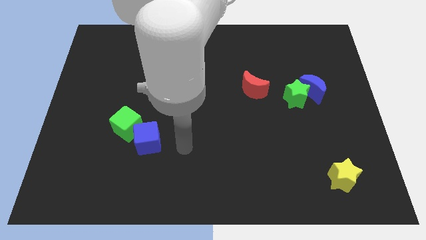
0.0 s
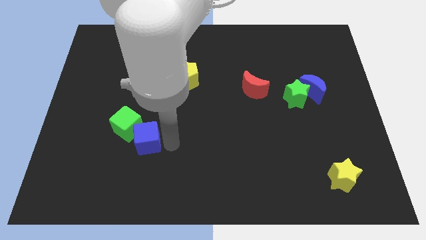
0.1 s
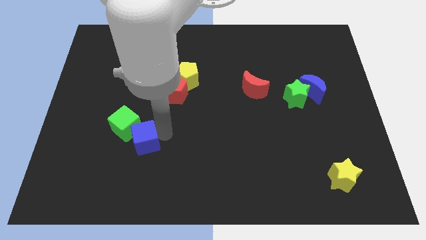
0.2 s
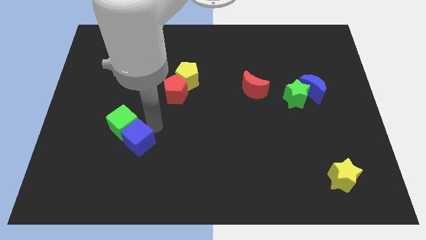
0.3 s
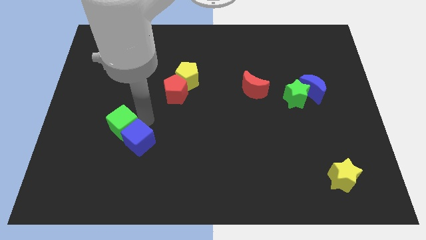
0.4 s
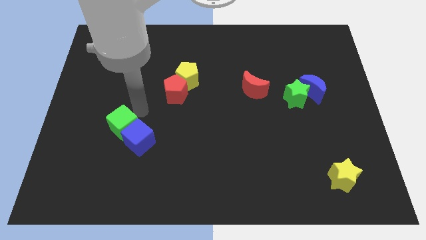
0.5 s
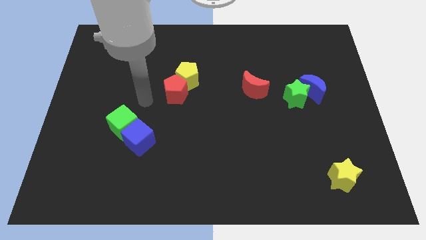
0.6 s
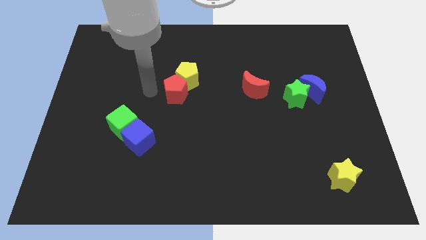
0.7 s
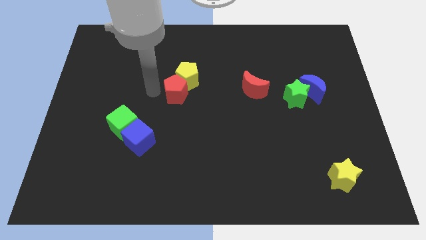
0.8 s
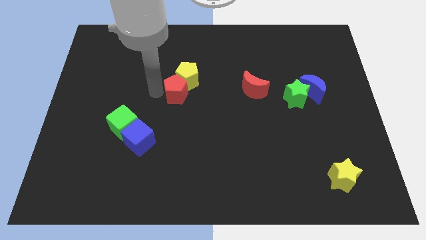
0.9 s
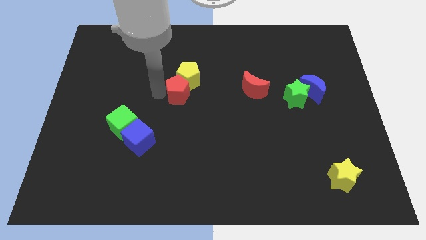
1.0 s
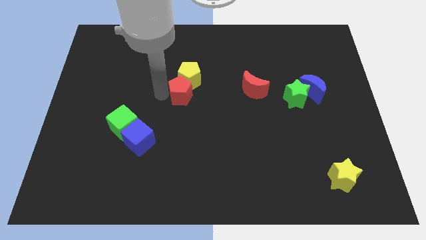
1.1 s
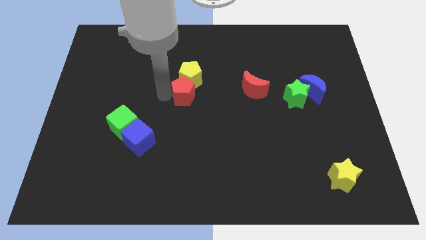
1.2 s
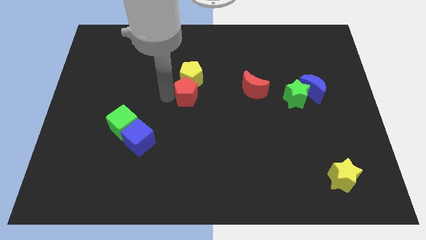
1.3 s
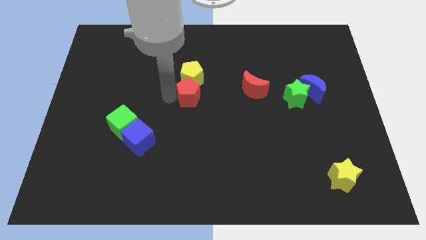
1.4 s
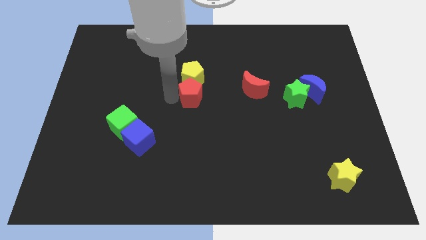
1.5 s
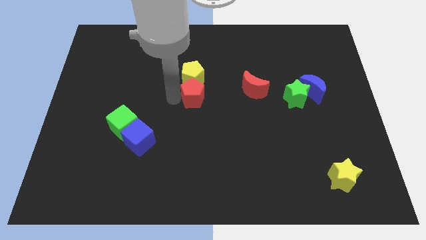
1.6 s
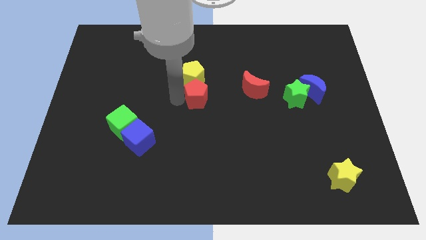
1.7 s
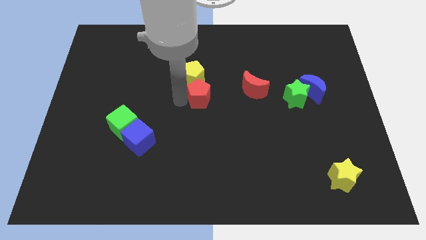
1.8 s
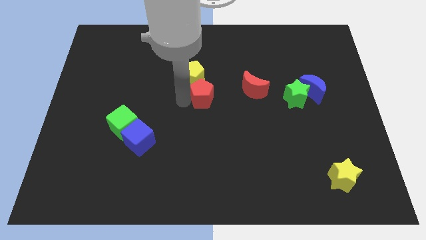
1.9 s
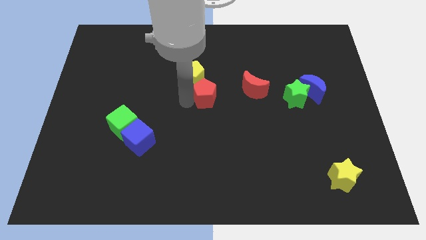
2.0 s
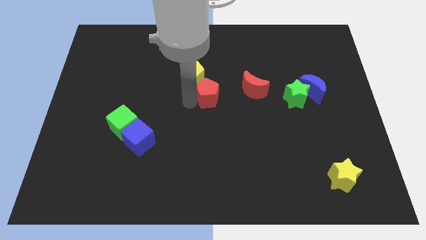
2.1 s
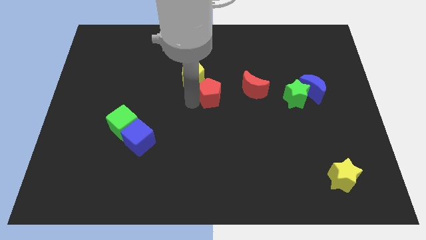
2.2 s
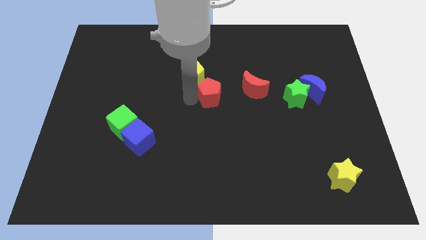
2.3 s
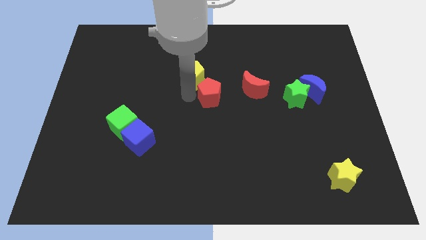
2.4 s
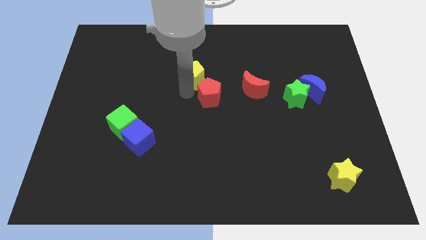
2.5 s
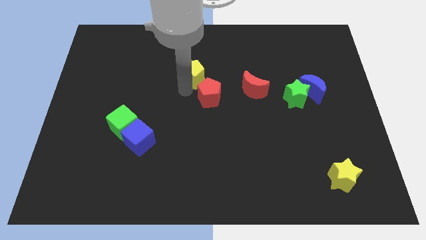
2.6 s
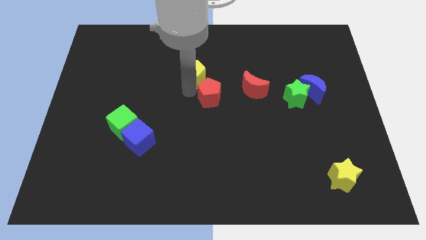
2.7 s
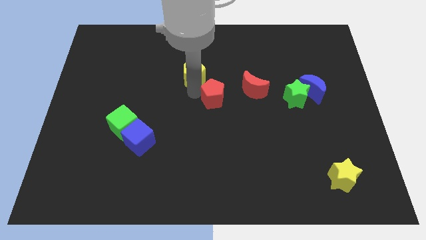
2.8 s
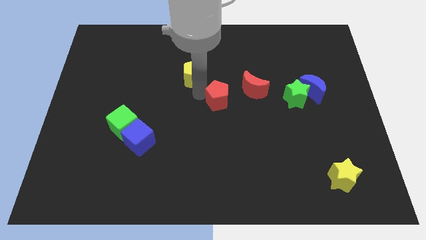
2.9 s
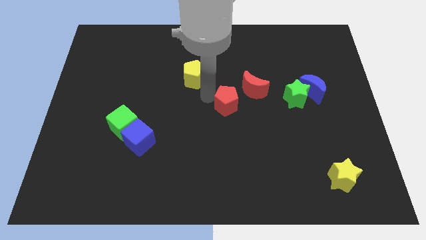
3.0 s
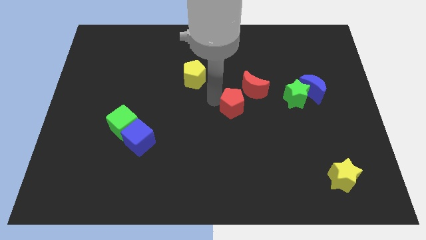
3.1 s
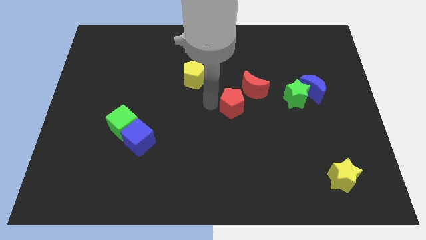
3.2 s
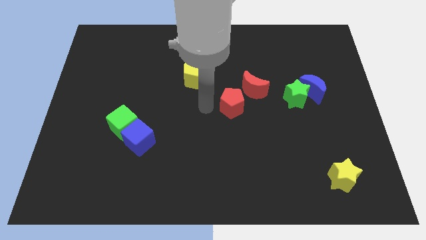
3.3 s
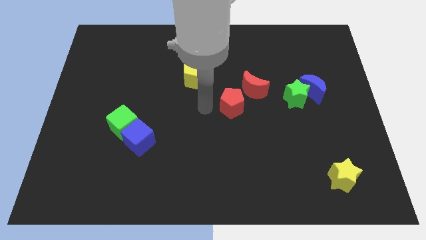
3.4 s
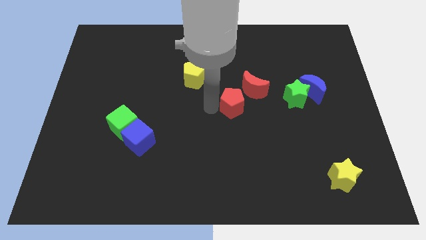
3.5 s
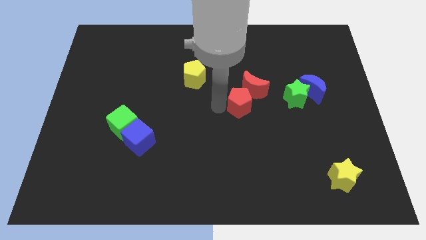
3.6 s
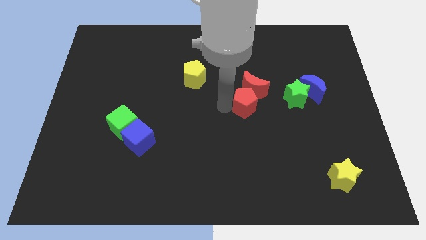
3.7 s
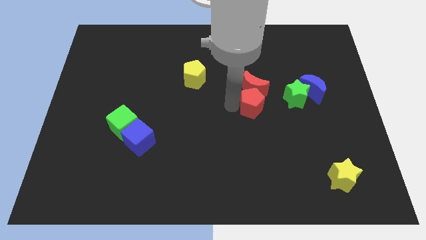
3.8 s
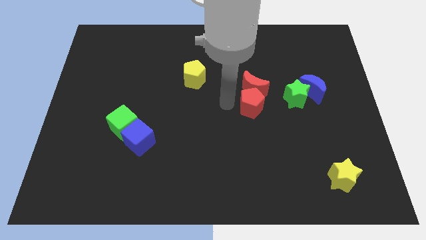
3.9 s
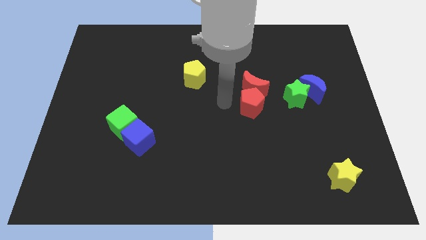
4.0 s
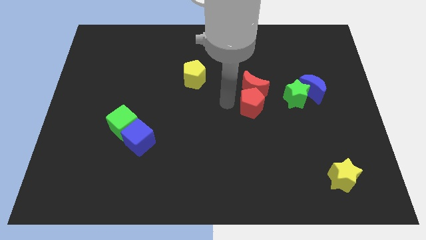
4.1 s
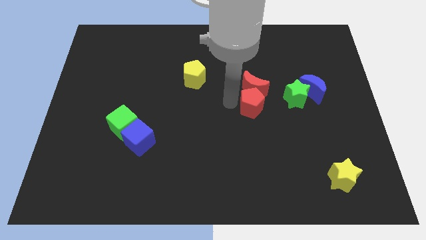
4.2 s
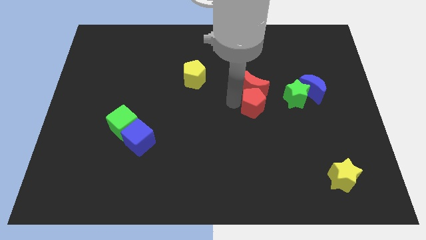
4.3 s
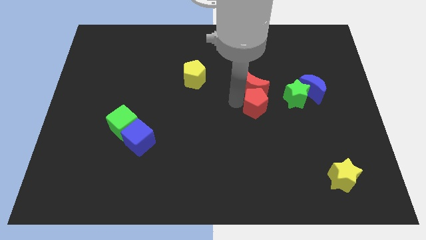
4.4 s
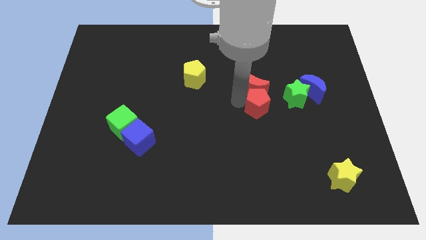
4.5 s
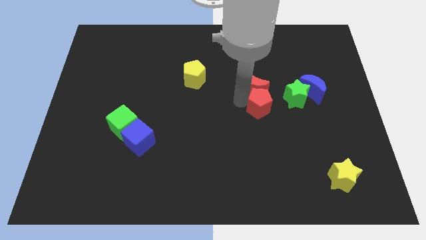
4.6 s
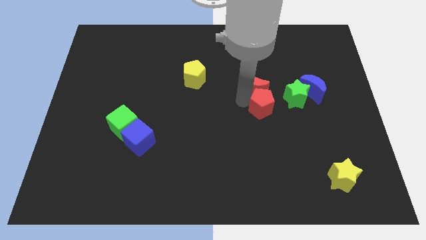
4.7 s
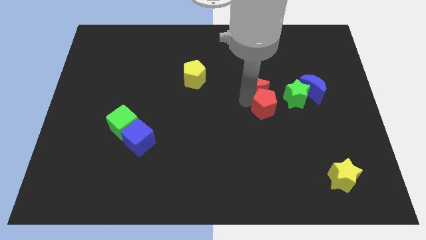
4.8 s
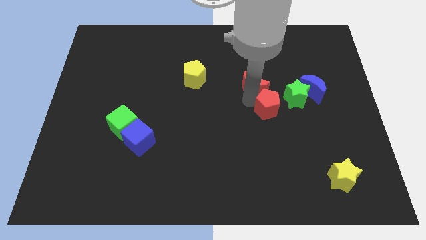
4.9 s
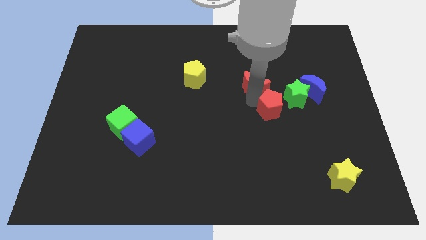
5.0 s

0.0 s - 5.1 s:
slide the red pentagon diagonally down and to the left of the blue moon

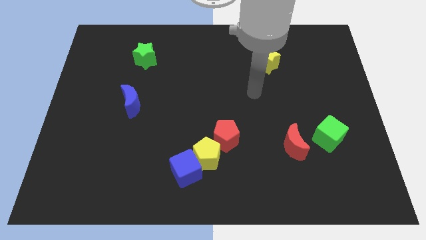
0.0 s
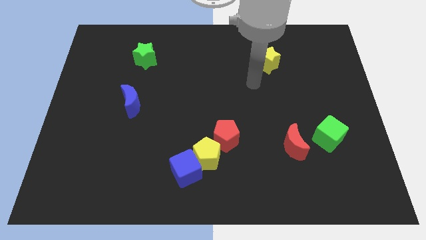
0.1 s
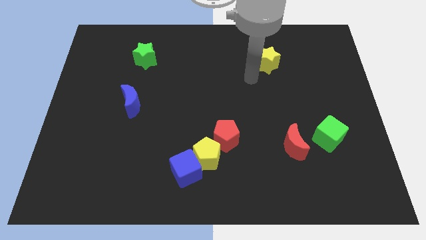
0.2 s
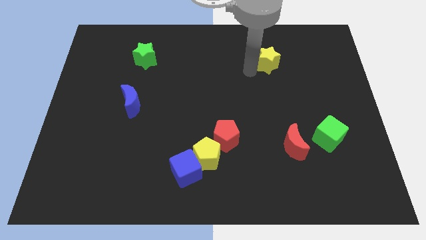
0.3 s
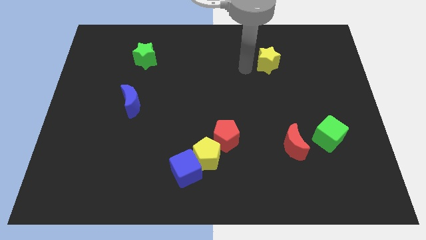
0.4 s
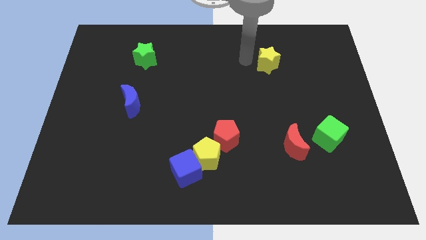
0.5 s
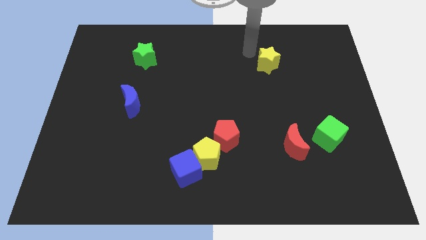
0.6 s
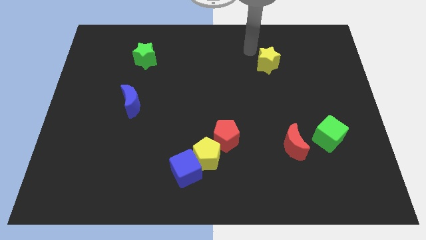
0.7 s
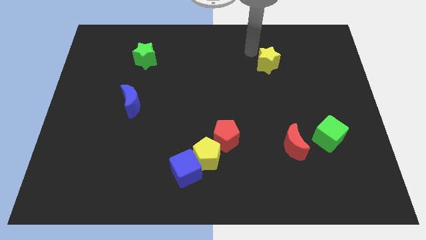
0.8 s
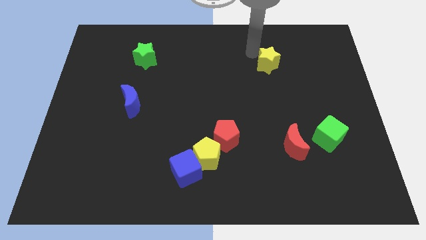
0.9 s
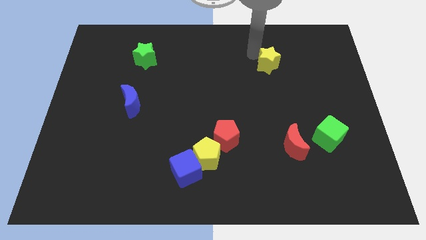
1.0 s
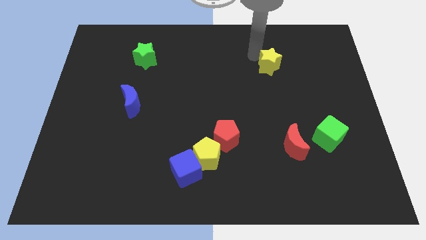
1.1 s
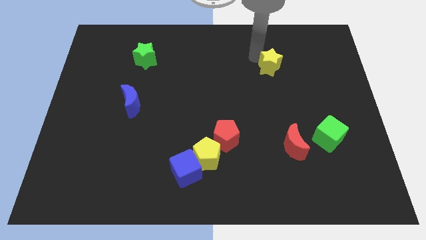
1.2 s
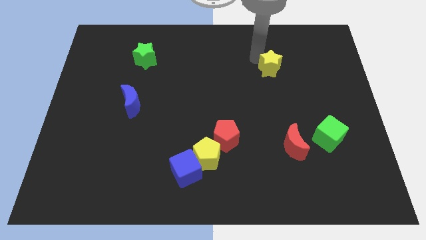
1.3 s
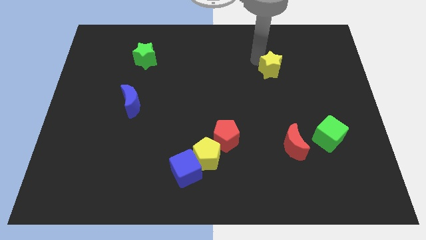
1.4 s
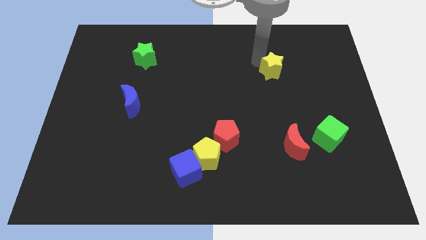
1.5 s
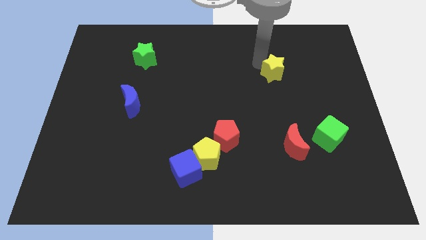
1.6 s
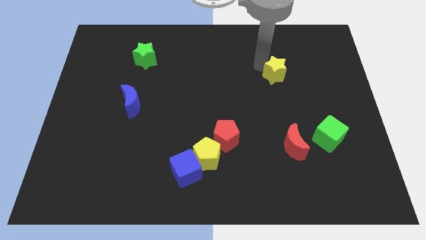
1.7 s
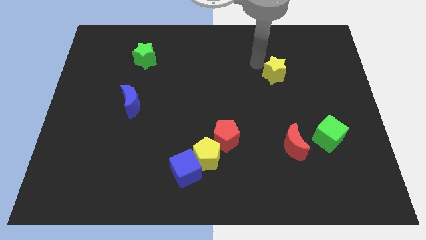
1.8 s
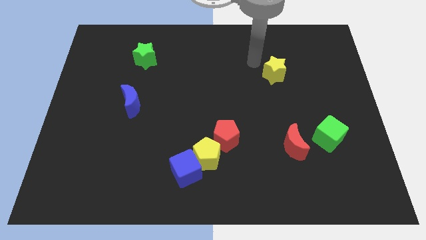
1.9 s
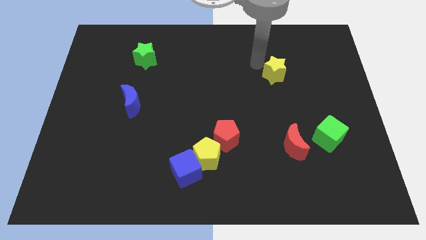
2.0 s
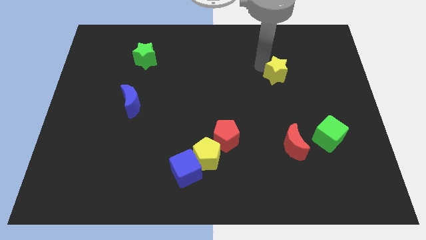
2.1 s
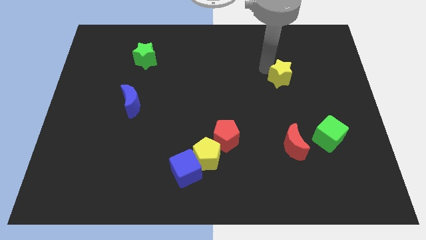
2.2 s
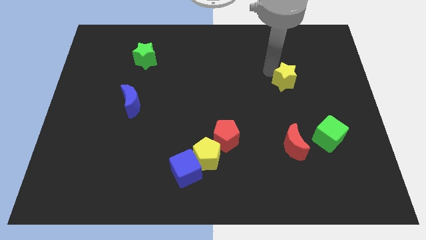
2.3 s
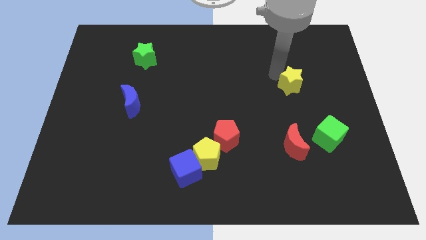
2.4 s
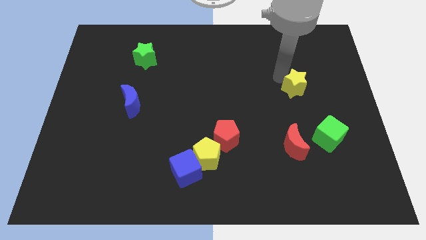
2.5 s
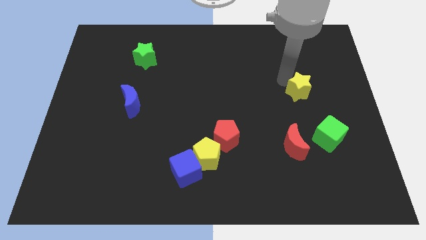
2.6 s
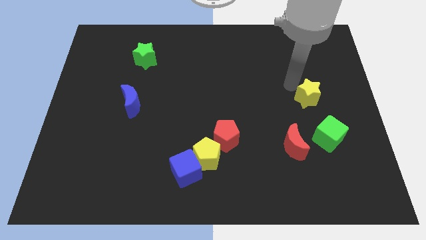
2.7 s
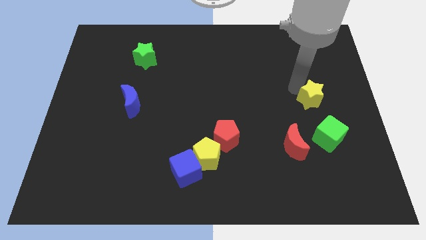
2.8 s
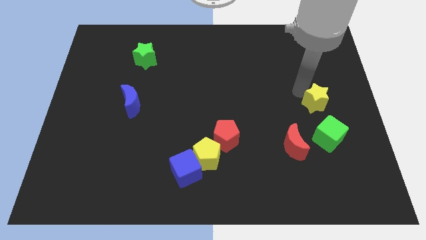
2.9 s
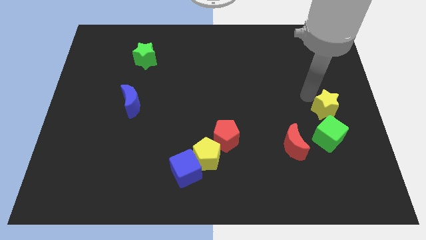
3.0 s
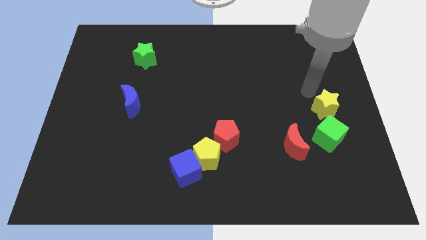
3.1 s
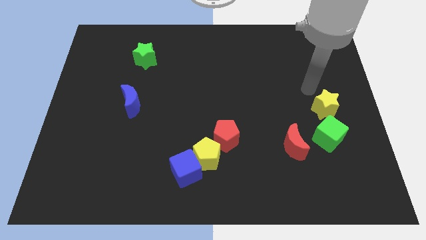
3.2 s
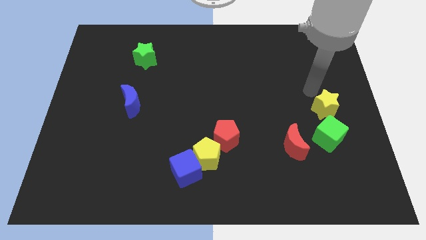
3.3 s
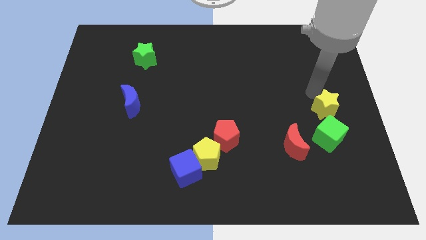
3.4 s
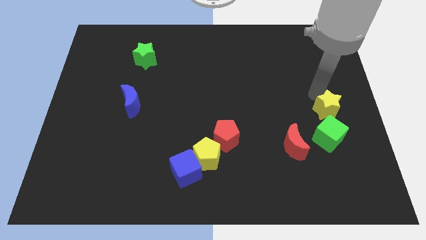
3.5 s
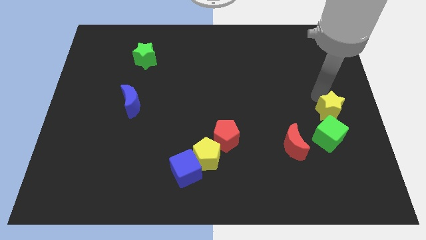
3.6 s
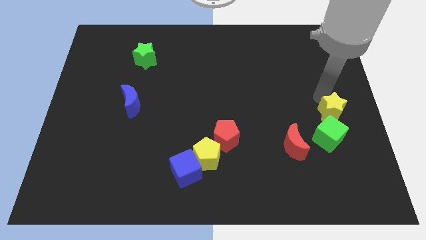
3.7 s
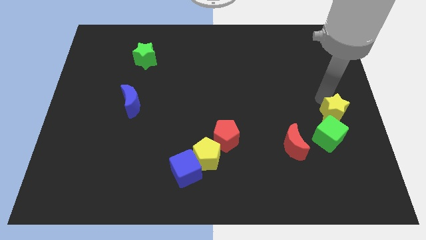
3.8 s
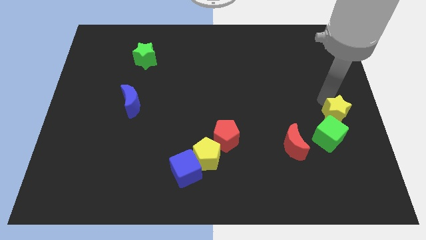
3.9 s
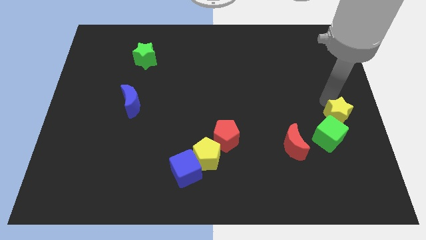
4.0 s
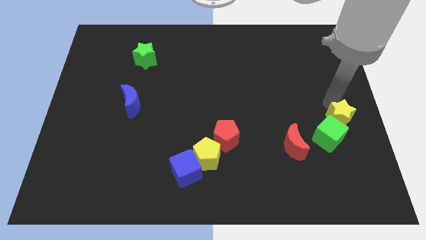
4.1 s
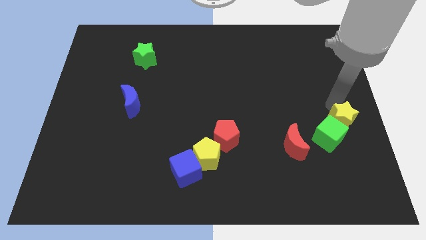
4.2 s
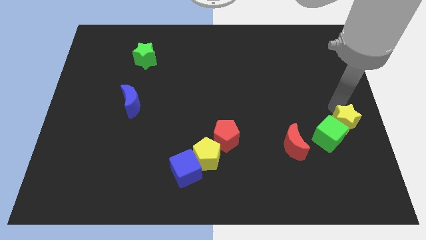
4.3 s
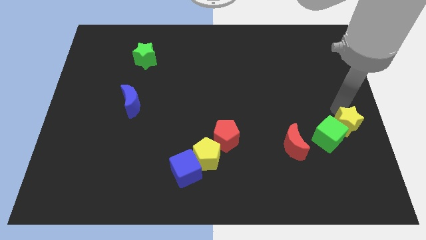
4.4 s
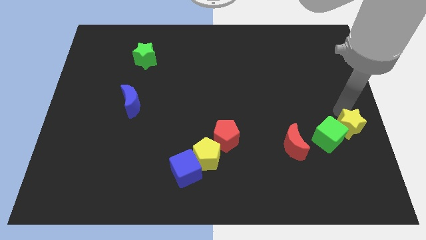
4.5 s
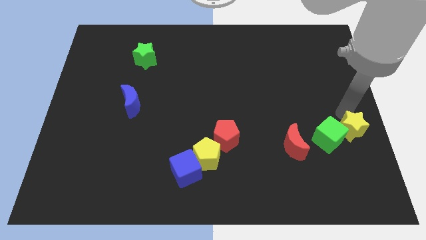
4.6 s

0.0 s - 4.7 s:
slide the yellow star right of the red moon
